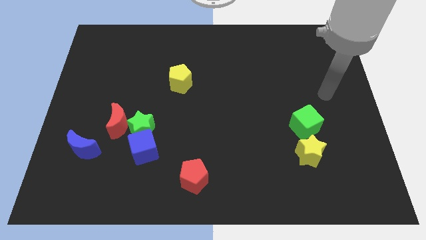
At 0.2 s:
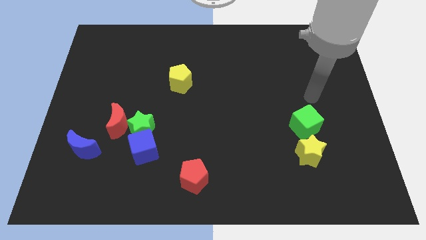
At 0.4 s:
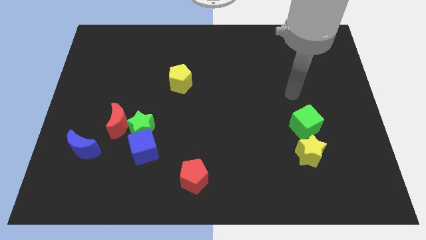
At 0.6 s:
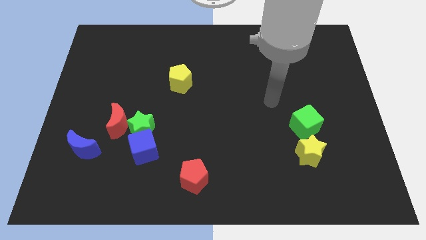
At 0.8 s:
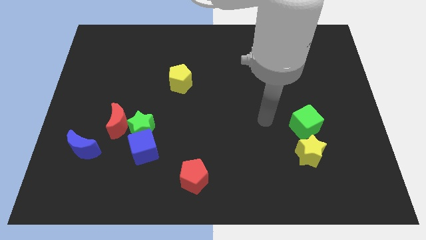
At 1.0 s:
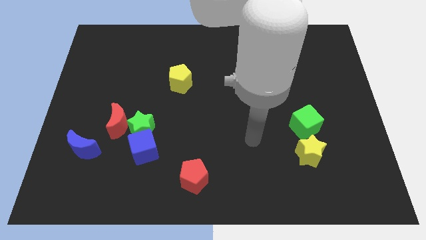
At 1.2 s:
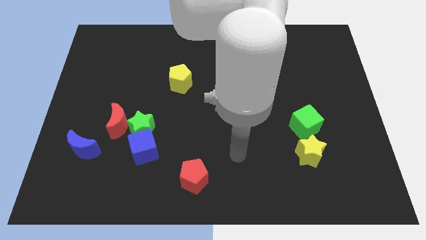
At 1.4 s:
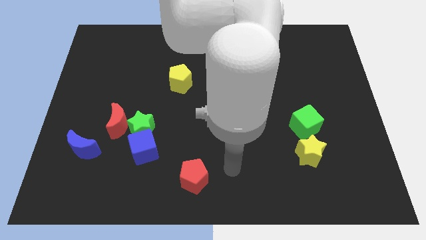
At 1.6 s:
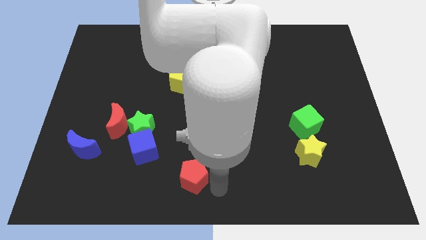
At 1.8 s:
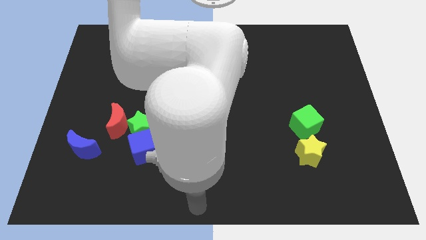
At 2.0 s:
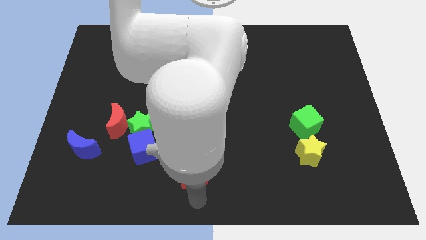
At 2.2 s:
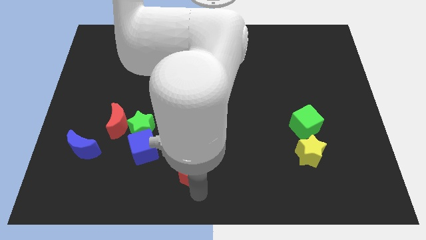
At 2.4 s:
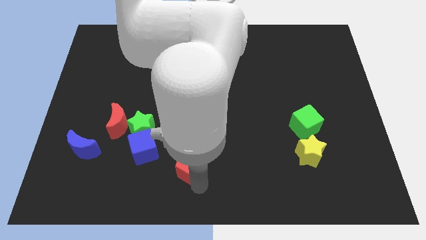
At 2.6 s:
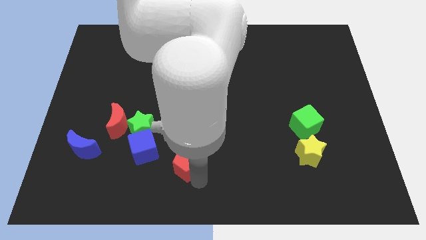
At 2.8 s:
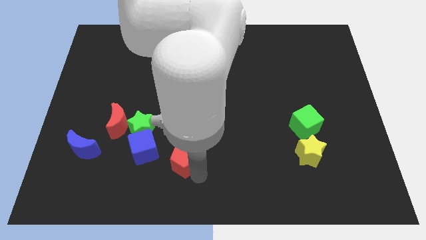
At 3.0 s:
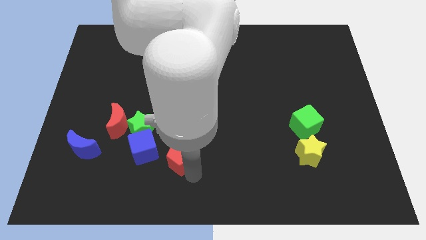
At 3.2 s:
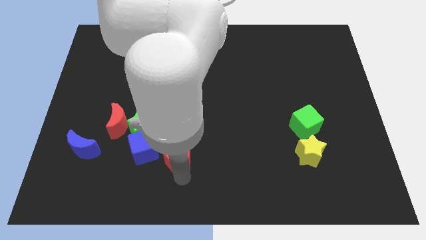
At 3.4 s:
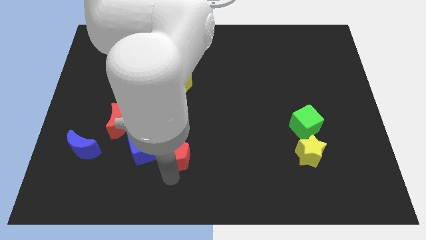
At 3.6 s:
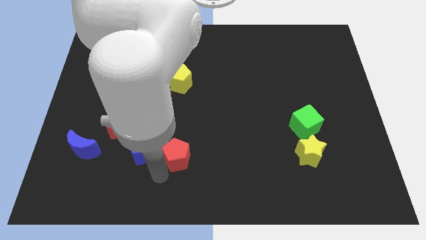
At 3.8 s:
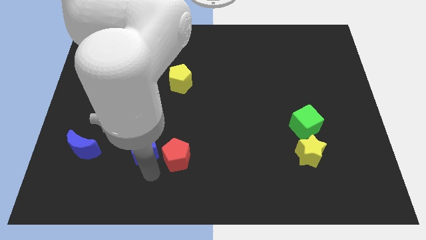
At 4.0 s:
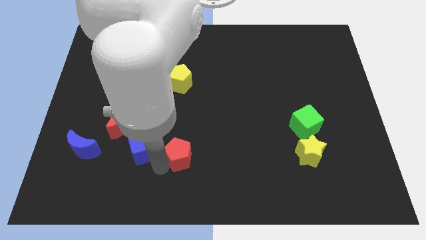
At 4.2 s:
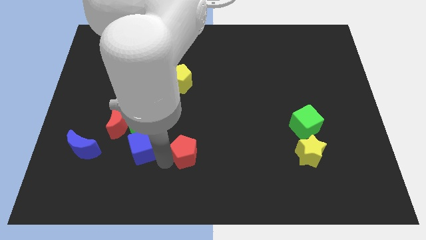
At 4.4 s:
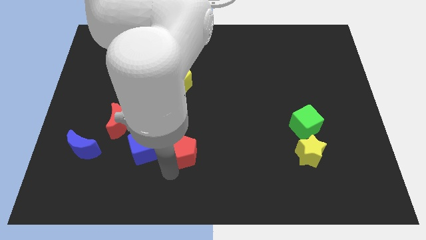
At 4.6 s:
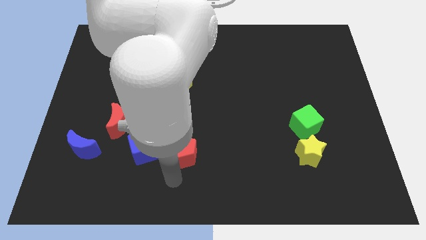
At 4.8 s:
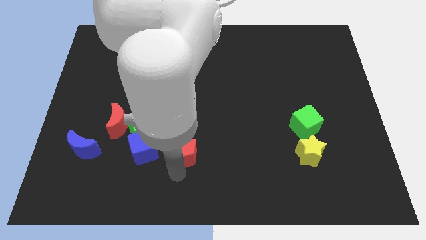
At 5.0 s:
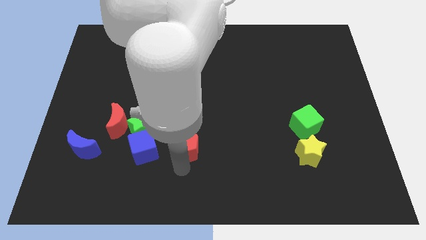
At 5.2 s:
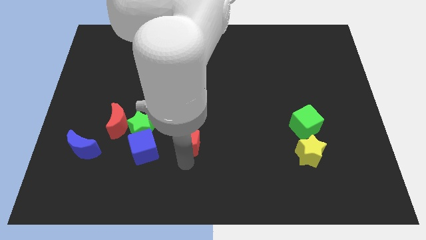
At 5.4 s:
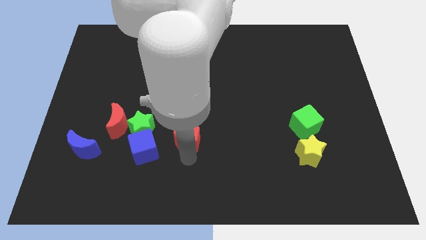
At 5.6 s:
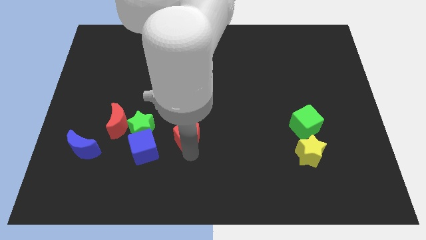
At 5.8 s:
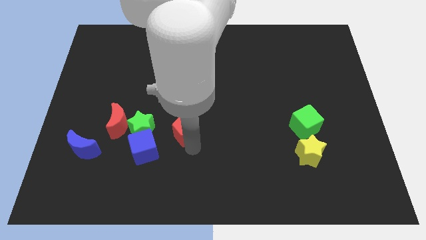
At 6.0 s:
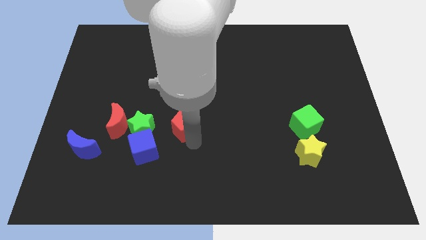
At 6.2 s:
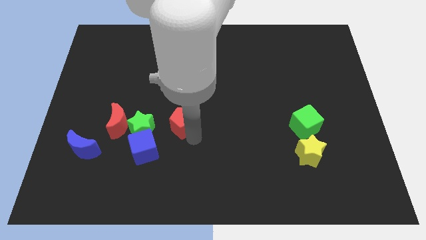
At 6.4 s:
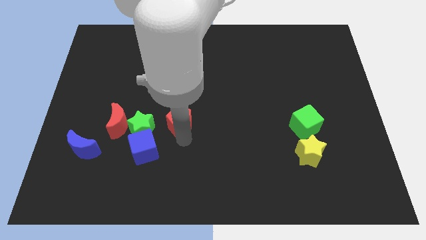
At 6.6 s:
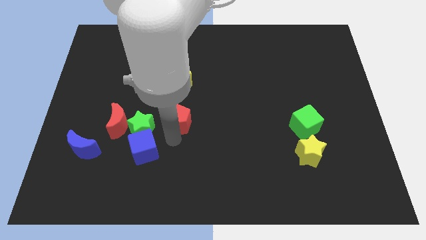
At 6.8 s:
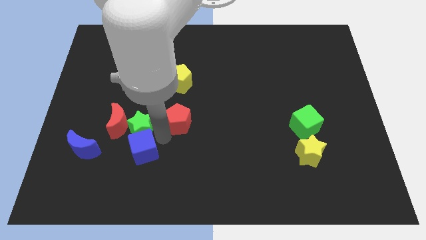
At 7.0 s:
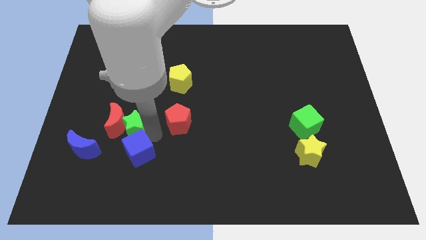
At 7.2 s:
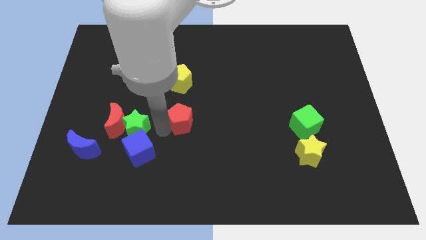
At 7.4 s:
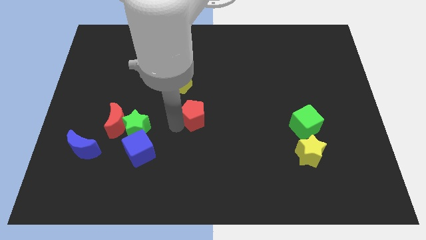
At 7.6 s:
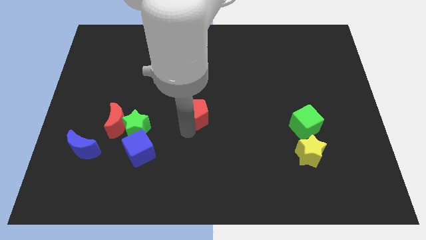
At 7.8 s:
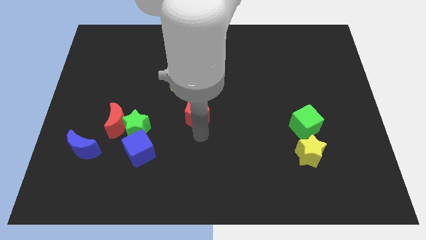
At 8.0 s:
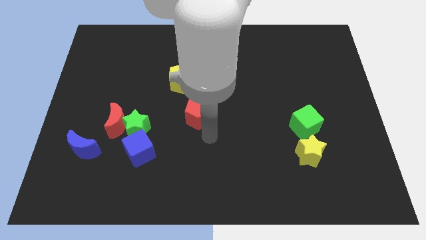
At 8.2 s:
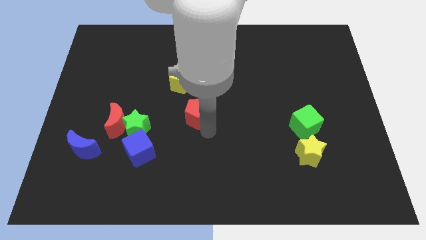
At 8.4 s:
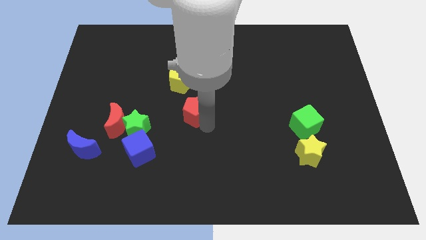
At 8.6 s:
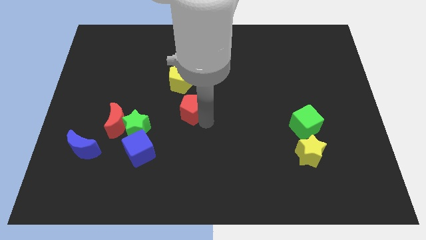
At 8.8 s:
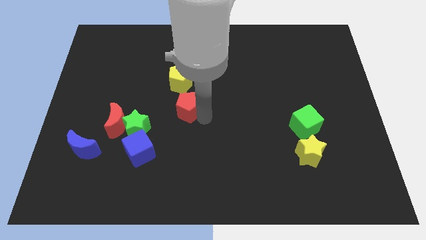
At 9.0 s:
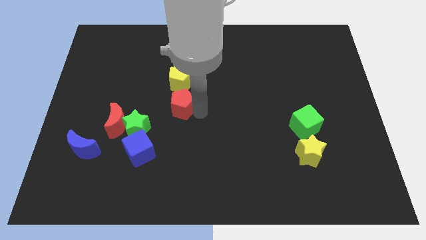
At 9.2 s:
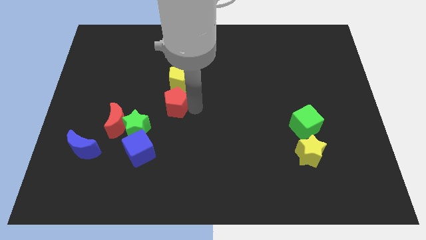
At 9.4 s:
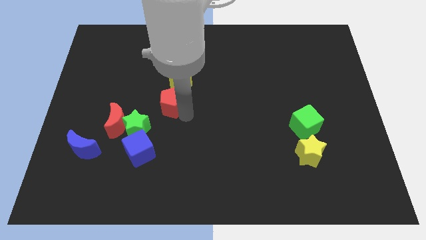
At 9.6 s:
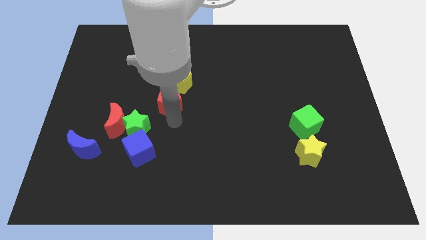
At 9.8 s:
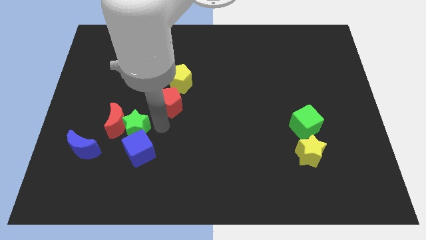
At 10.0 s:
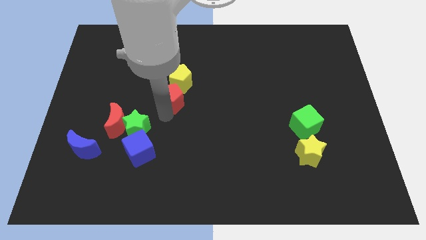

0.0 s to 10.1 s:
push the red pentagon to the yellow pentagon

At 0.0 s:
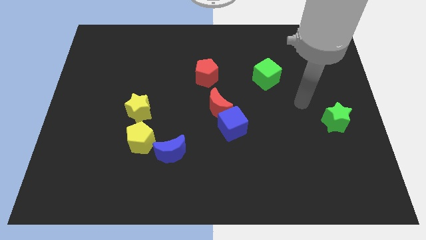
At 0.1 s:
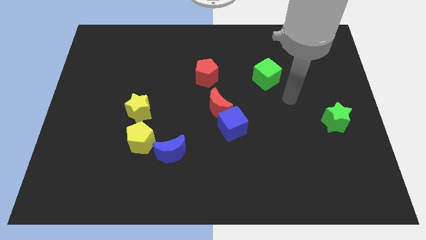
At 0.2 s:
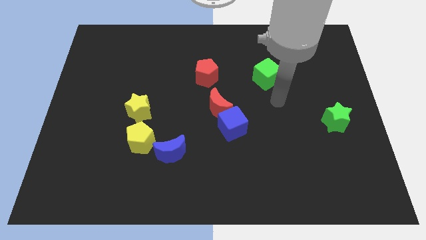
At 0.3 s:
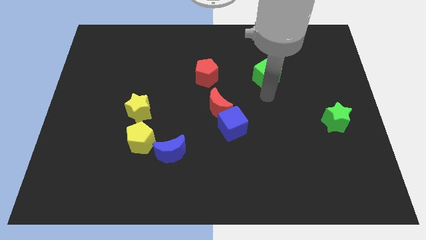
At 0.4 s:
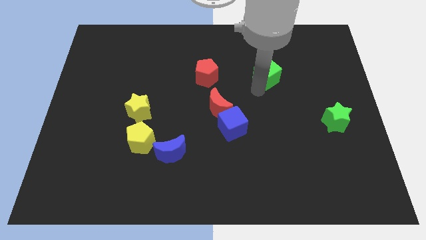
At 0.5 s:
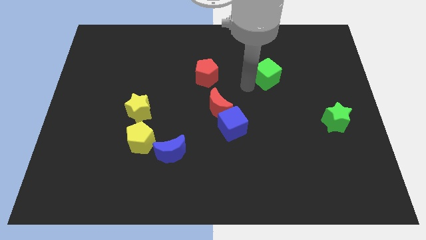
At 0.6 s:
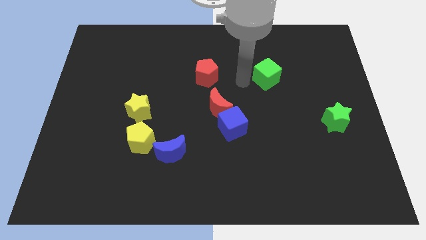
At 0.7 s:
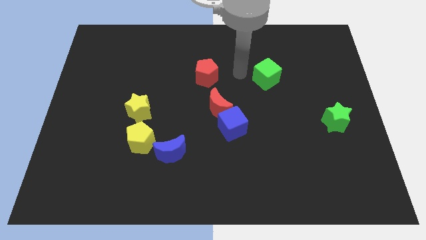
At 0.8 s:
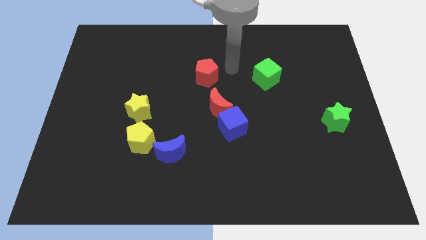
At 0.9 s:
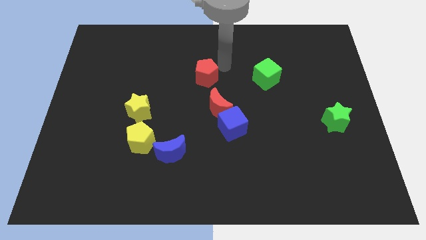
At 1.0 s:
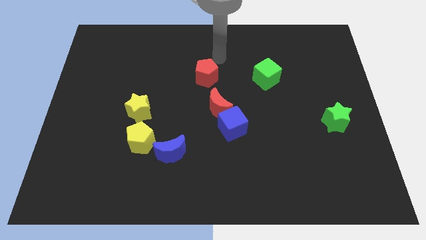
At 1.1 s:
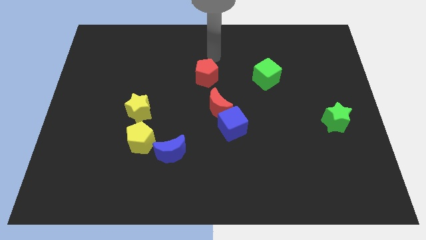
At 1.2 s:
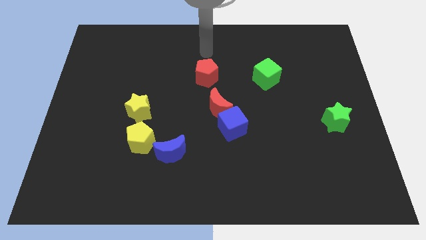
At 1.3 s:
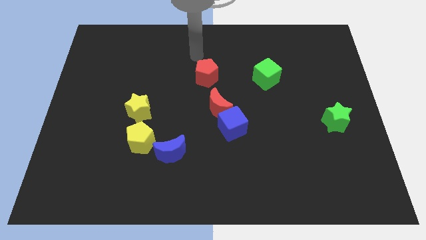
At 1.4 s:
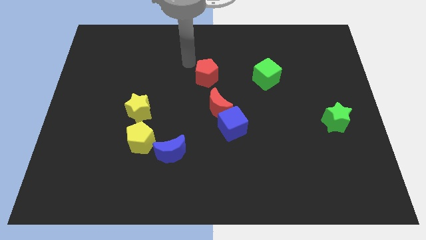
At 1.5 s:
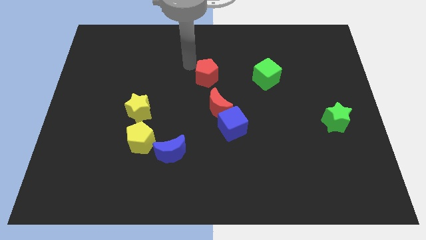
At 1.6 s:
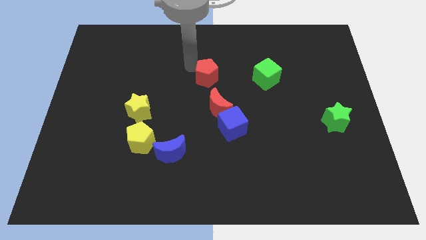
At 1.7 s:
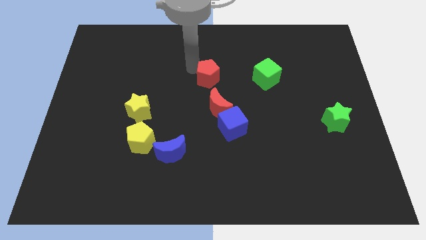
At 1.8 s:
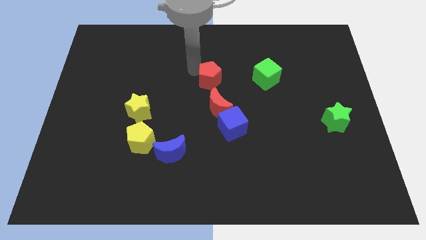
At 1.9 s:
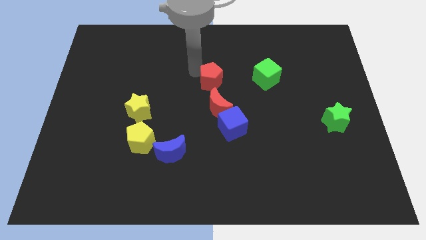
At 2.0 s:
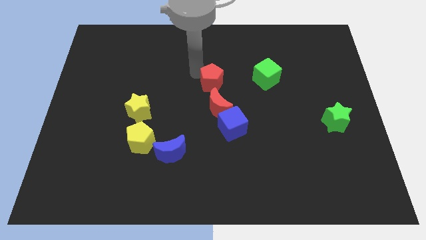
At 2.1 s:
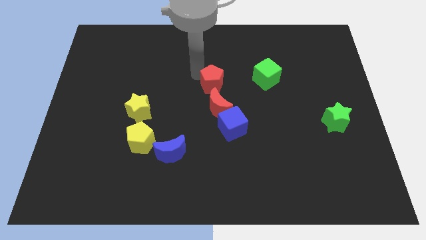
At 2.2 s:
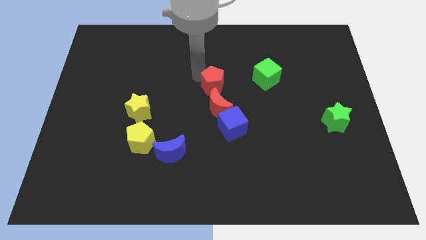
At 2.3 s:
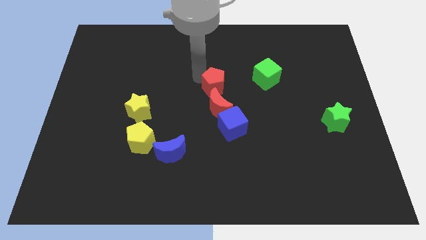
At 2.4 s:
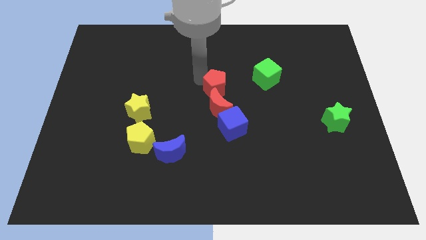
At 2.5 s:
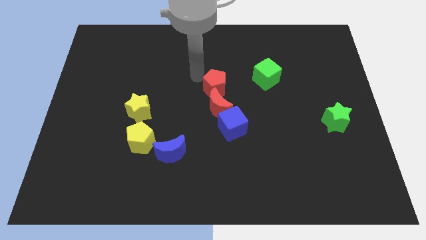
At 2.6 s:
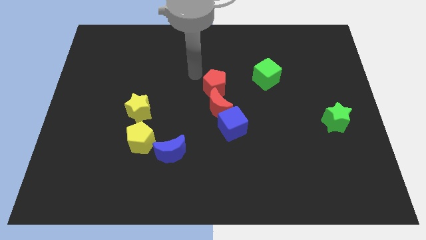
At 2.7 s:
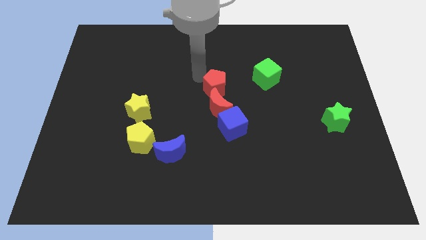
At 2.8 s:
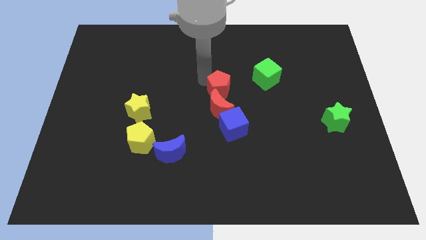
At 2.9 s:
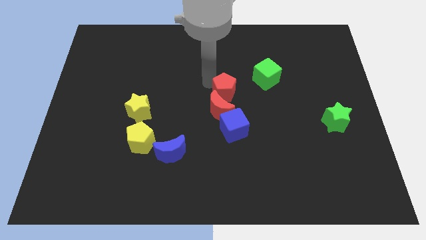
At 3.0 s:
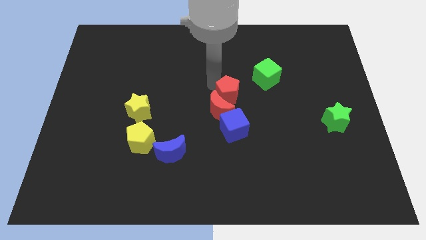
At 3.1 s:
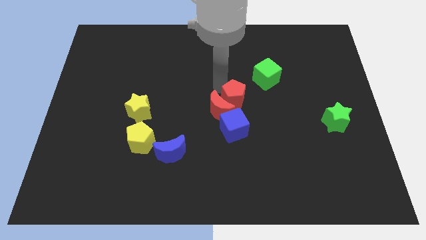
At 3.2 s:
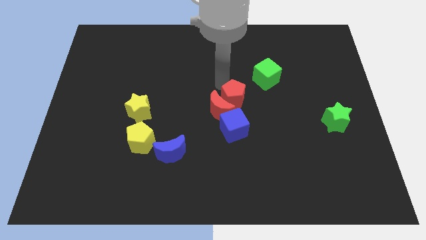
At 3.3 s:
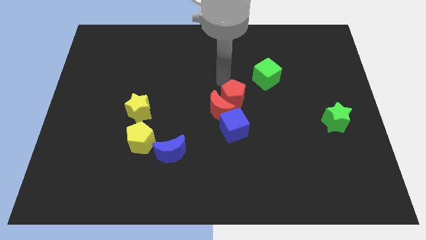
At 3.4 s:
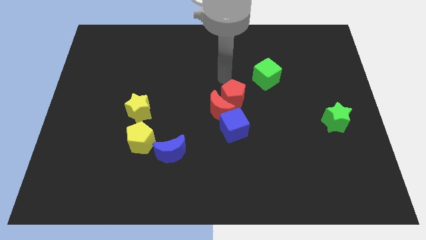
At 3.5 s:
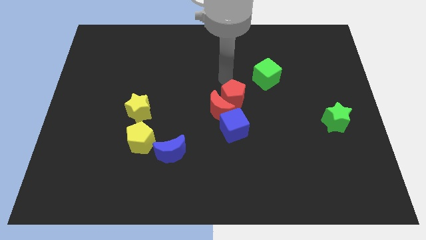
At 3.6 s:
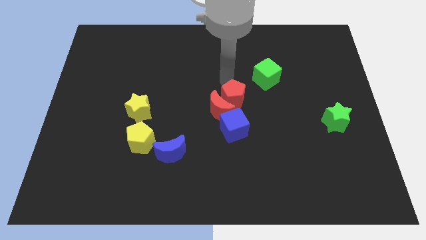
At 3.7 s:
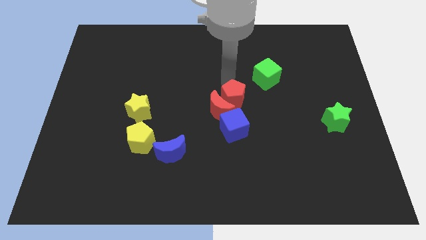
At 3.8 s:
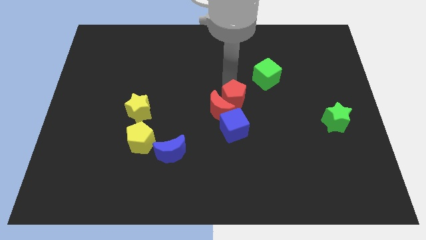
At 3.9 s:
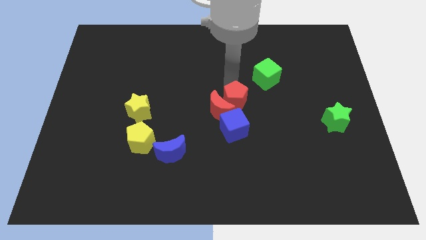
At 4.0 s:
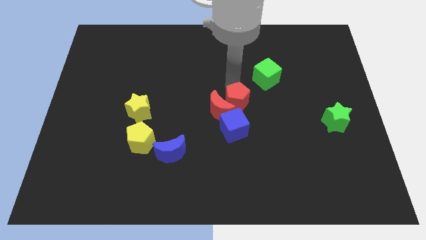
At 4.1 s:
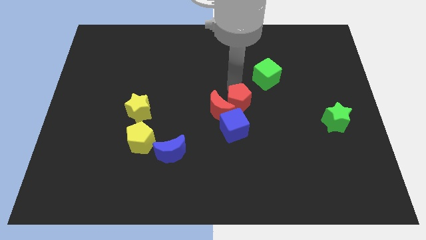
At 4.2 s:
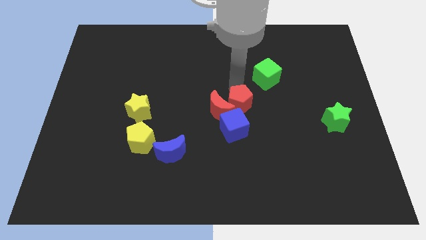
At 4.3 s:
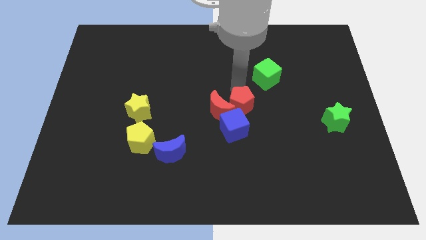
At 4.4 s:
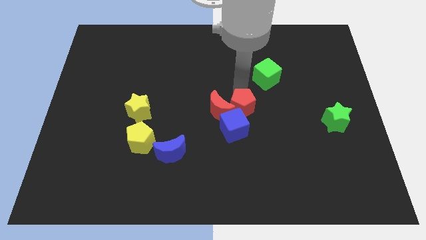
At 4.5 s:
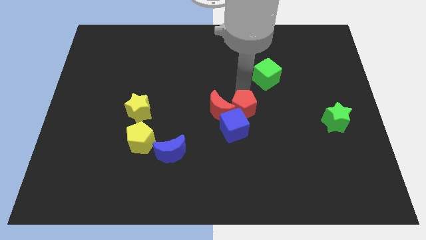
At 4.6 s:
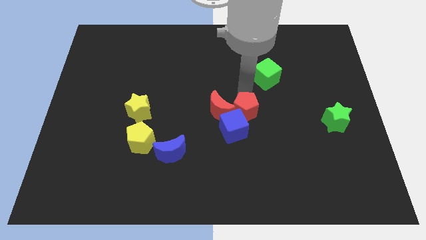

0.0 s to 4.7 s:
put the red pentagon close to the blue cube
